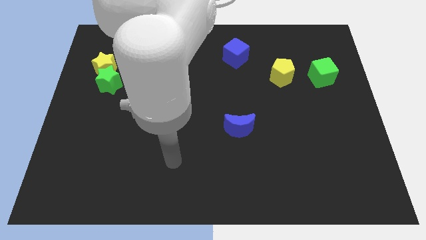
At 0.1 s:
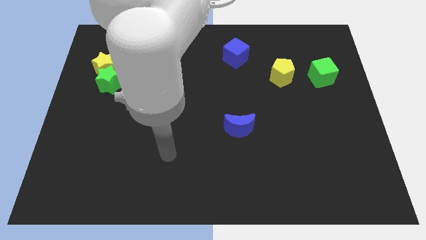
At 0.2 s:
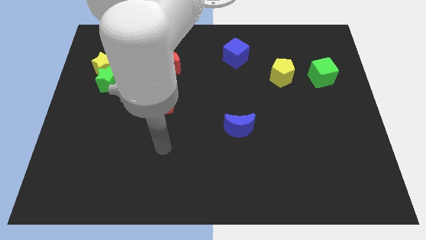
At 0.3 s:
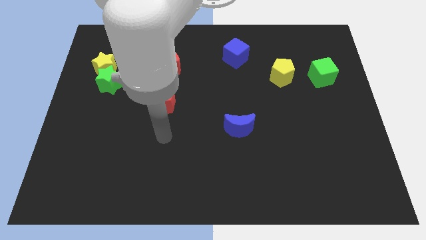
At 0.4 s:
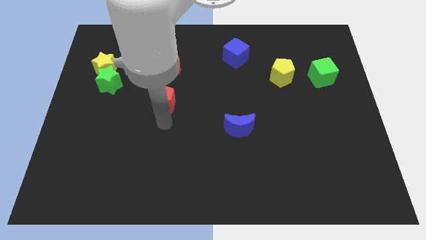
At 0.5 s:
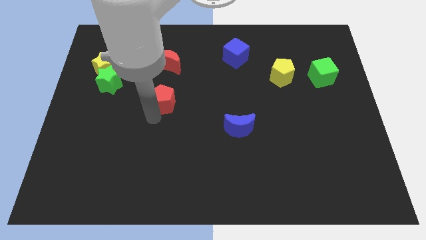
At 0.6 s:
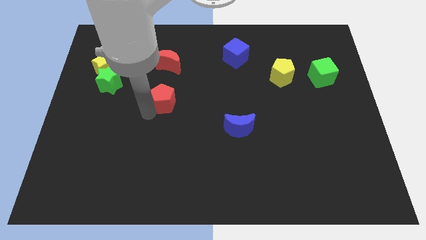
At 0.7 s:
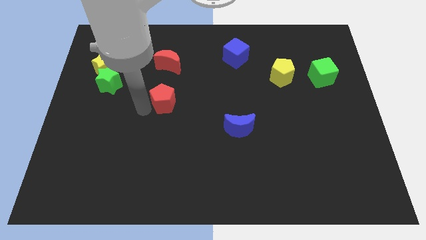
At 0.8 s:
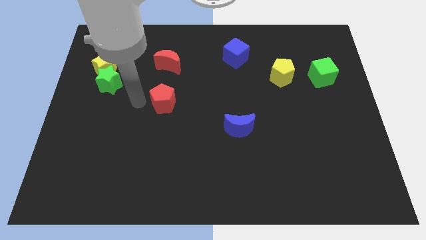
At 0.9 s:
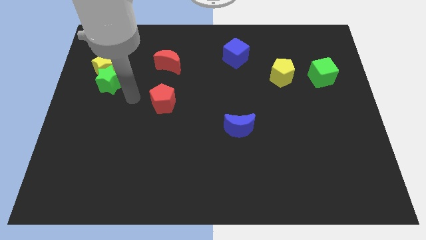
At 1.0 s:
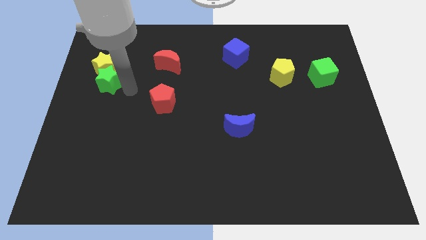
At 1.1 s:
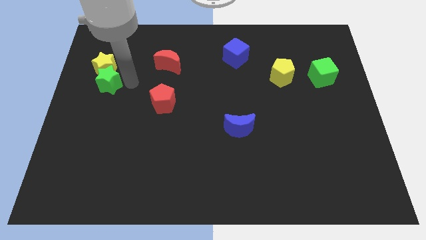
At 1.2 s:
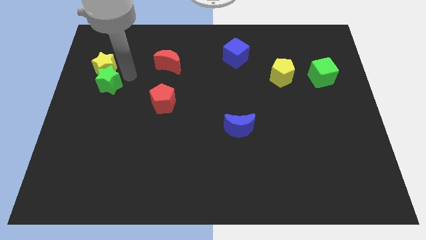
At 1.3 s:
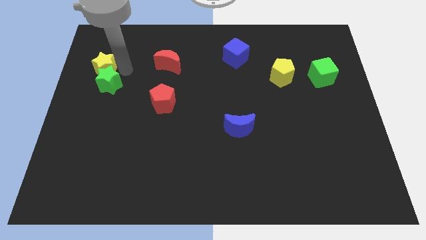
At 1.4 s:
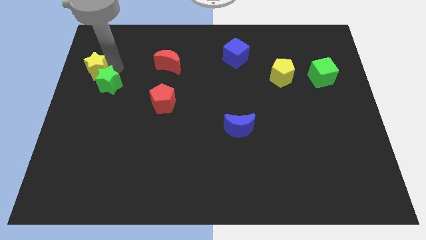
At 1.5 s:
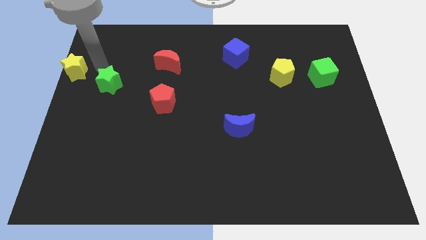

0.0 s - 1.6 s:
move the green star away from the yellow star

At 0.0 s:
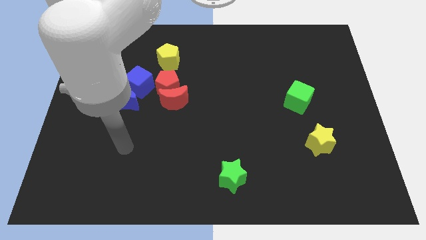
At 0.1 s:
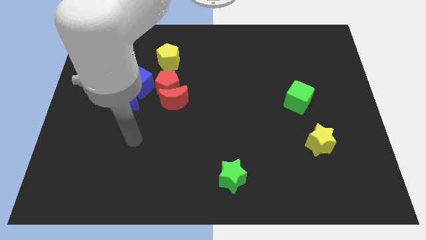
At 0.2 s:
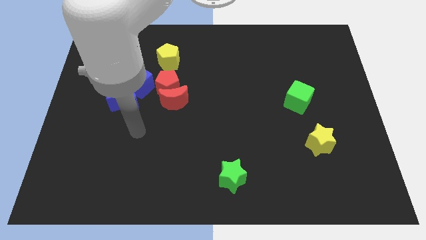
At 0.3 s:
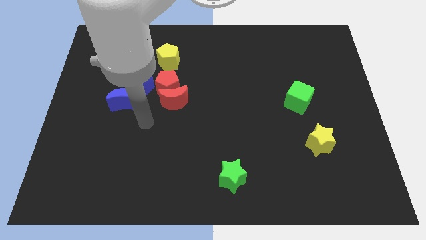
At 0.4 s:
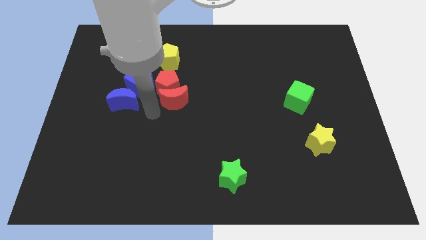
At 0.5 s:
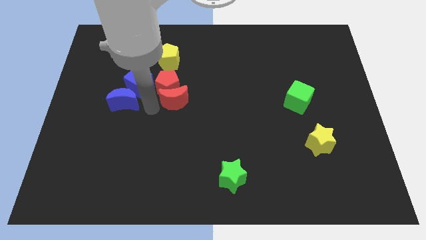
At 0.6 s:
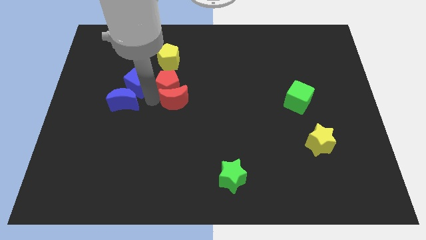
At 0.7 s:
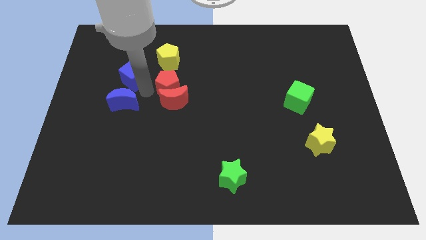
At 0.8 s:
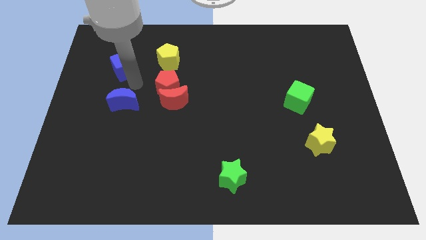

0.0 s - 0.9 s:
pull the blue moon apart from the blue cube

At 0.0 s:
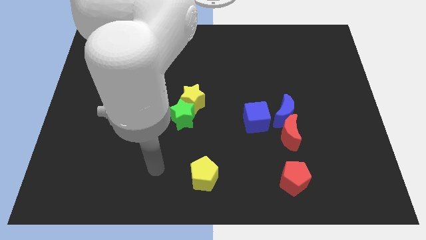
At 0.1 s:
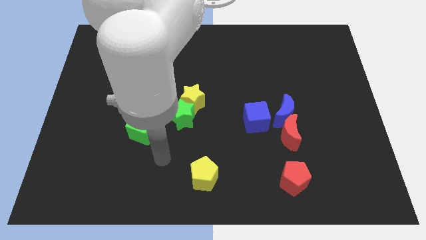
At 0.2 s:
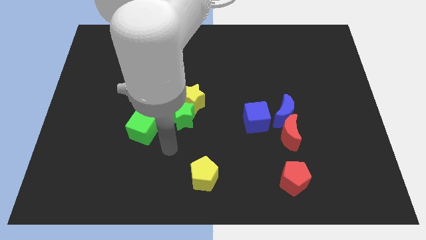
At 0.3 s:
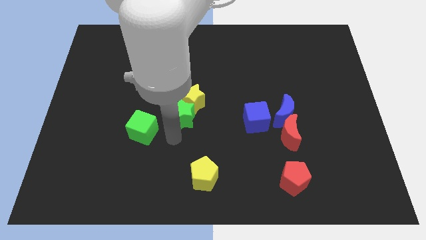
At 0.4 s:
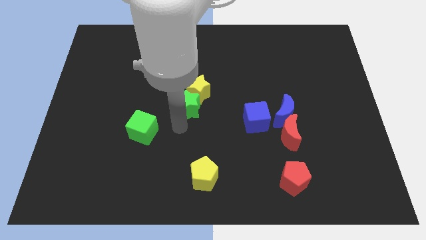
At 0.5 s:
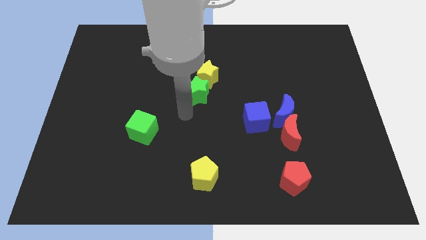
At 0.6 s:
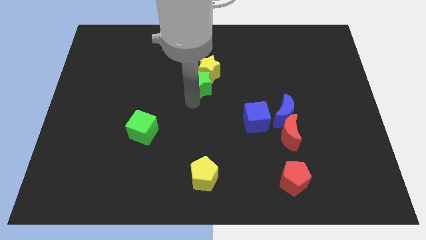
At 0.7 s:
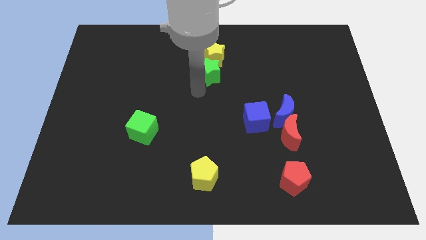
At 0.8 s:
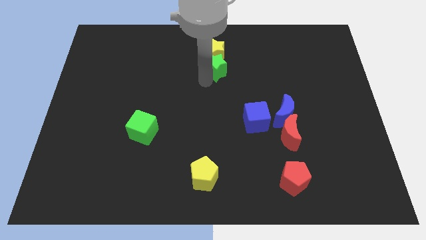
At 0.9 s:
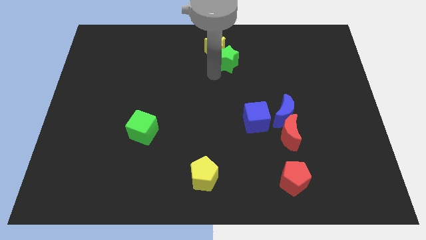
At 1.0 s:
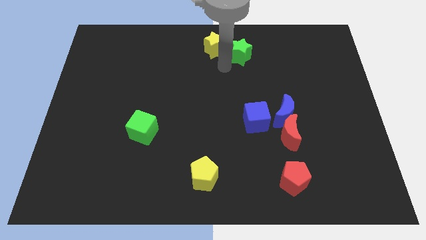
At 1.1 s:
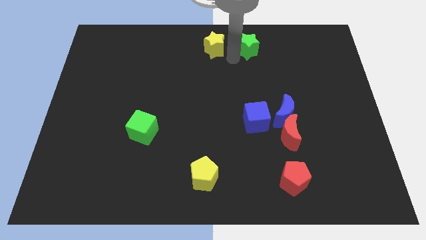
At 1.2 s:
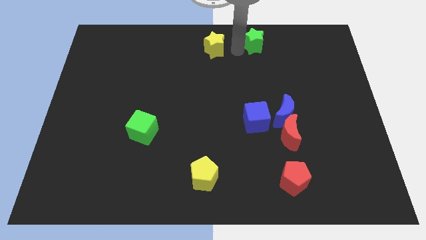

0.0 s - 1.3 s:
move the yellow star away from the green star

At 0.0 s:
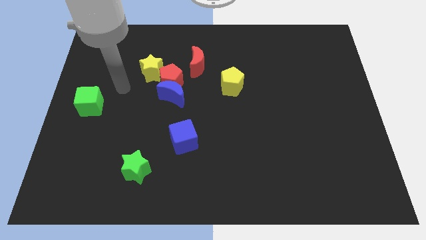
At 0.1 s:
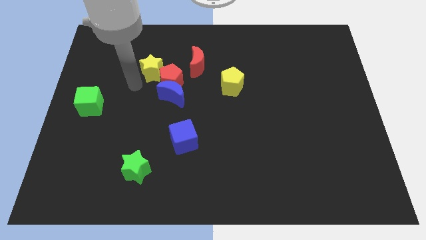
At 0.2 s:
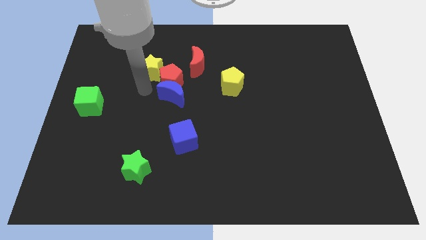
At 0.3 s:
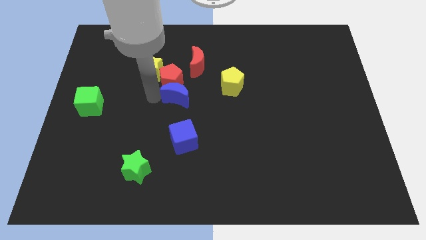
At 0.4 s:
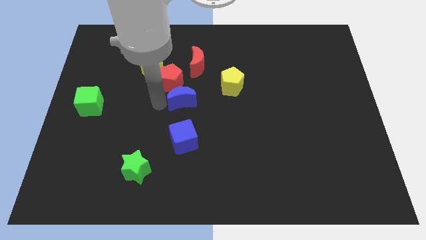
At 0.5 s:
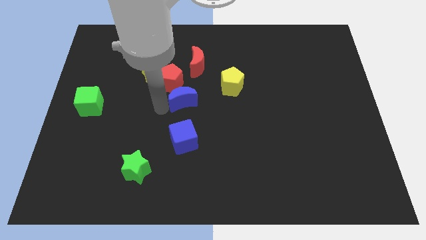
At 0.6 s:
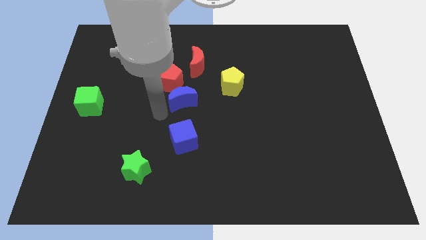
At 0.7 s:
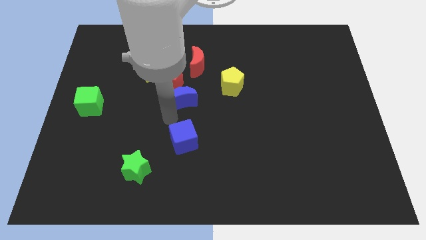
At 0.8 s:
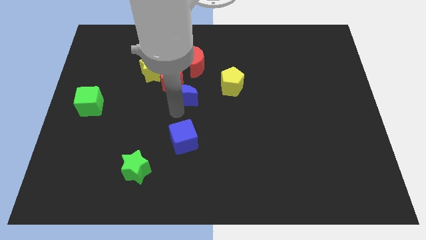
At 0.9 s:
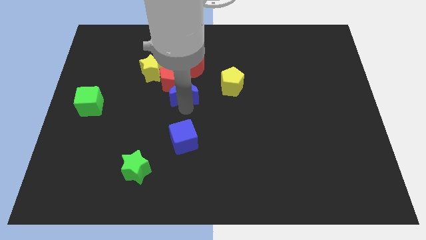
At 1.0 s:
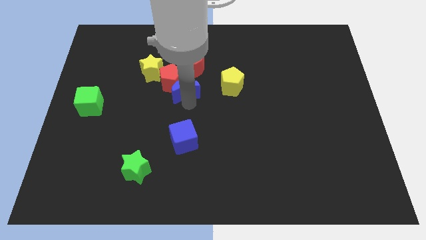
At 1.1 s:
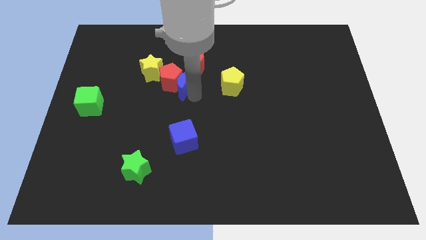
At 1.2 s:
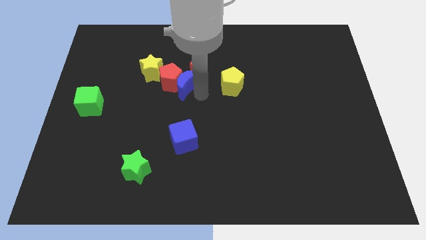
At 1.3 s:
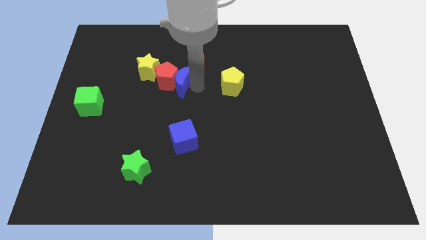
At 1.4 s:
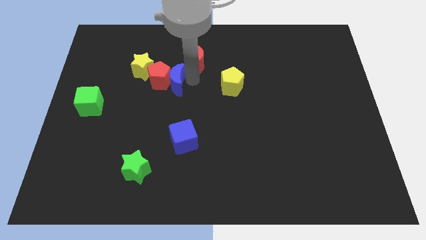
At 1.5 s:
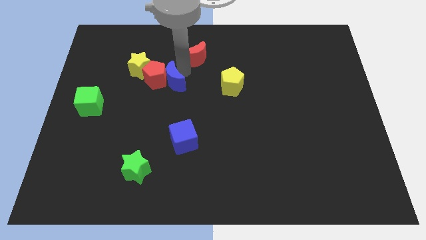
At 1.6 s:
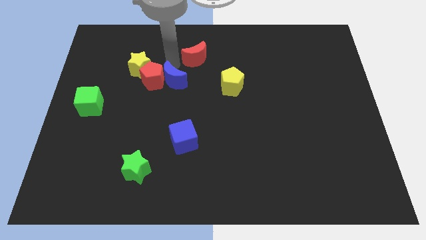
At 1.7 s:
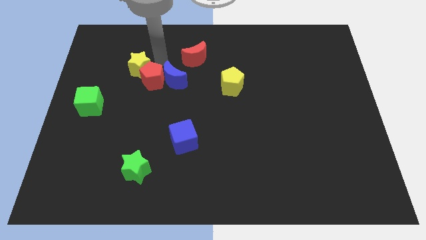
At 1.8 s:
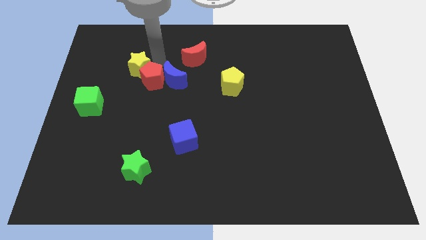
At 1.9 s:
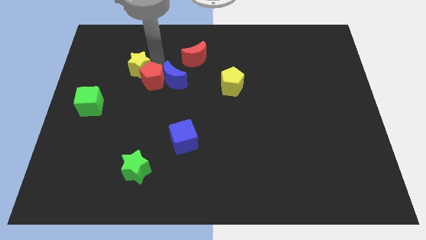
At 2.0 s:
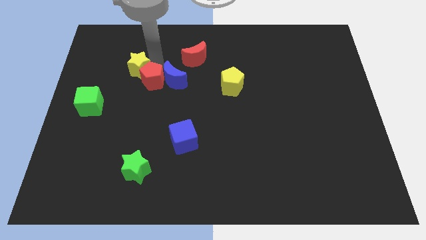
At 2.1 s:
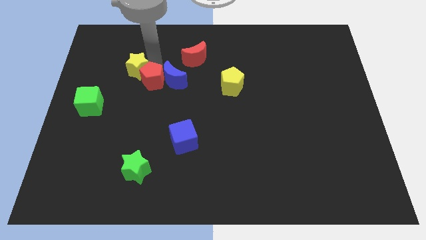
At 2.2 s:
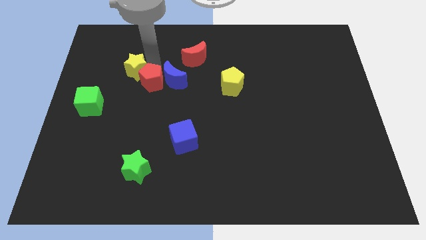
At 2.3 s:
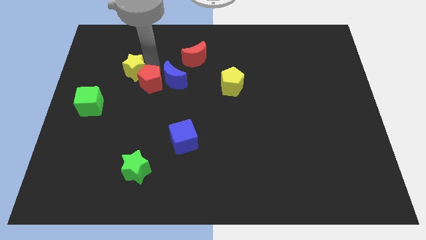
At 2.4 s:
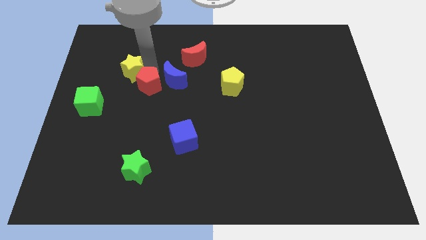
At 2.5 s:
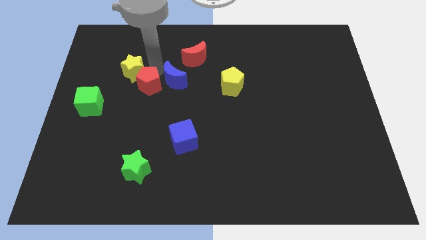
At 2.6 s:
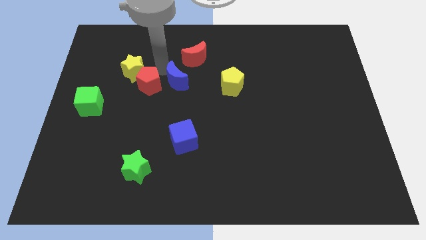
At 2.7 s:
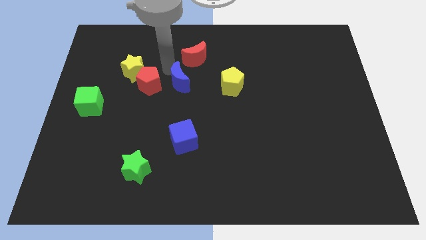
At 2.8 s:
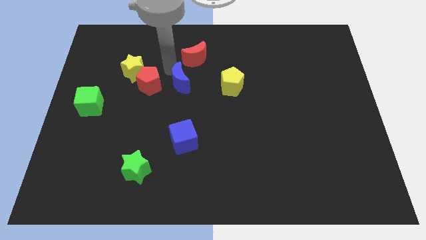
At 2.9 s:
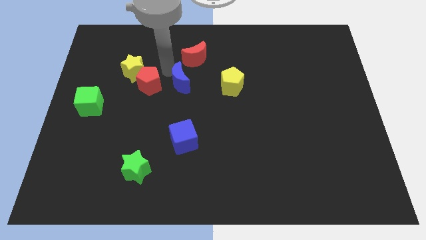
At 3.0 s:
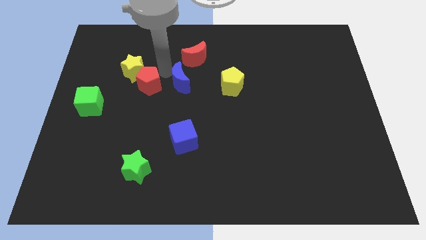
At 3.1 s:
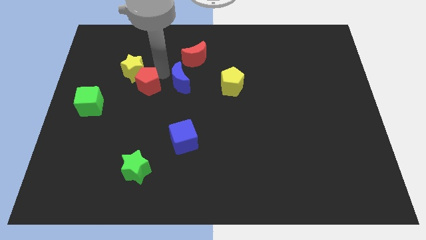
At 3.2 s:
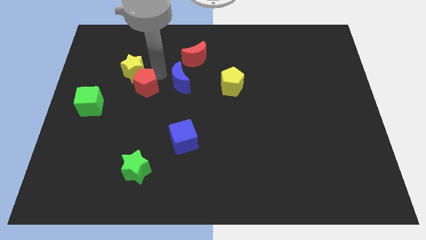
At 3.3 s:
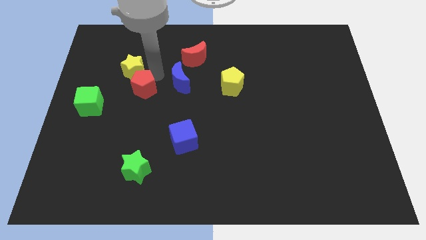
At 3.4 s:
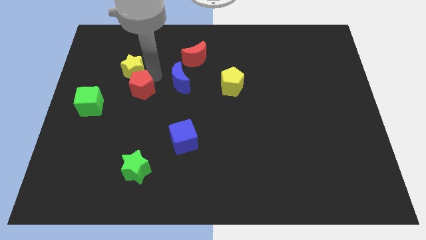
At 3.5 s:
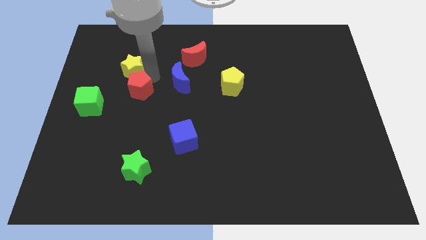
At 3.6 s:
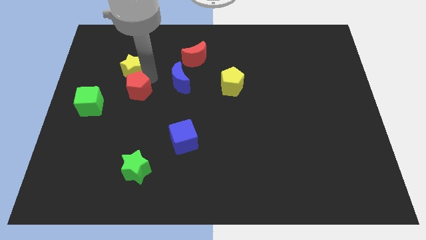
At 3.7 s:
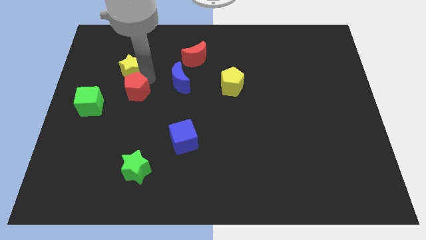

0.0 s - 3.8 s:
separate the red pentagon from the group

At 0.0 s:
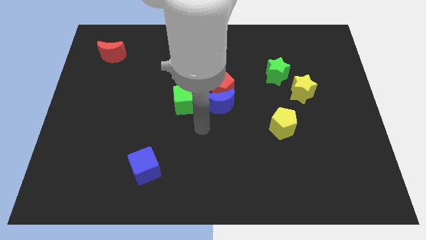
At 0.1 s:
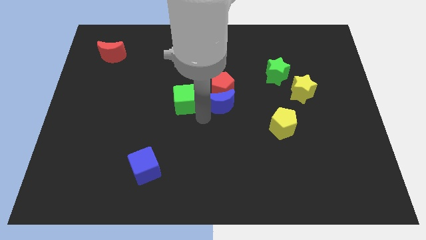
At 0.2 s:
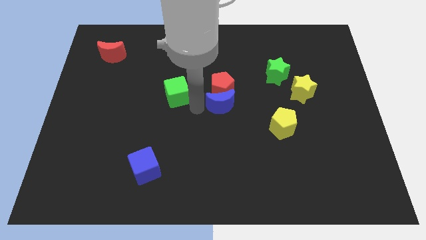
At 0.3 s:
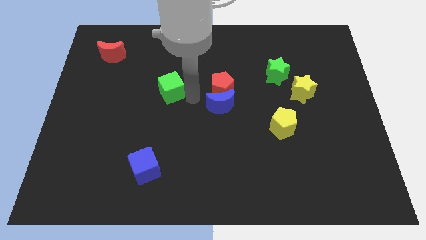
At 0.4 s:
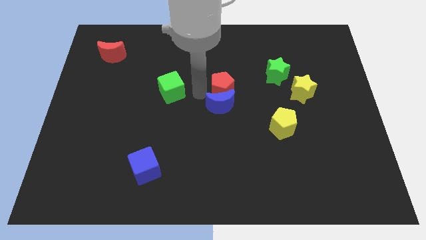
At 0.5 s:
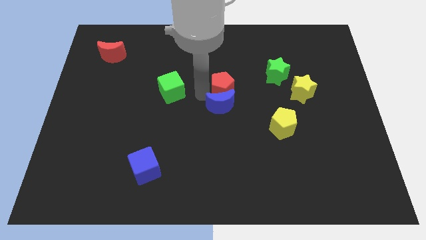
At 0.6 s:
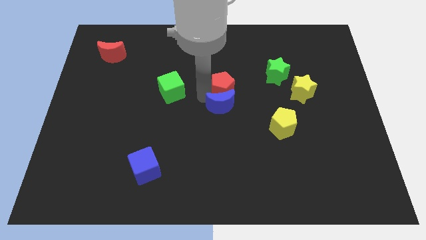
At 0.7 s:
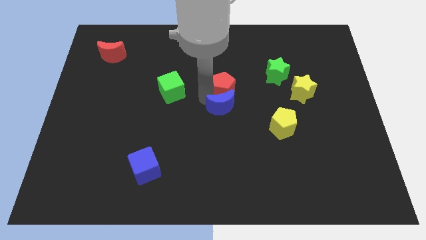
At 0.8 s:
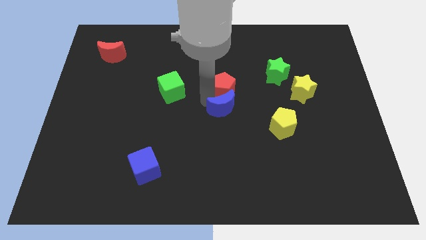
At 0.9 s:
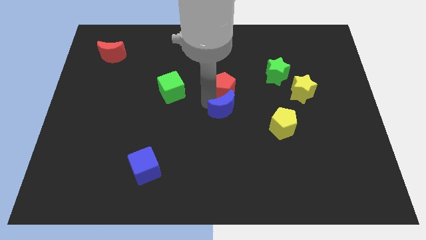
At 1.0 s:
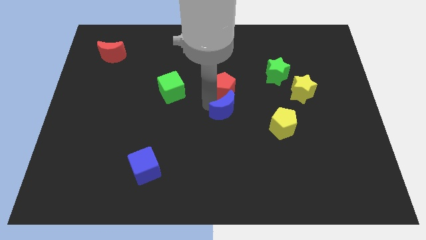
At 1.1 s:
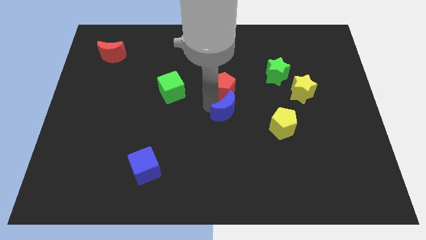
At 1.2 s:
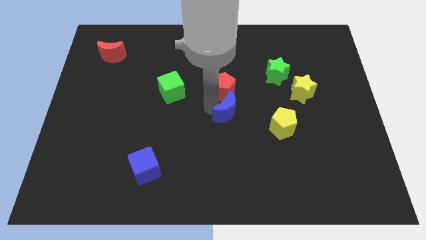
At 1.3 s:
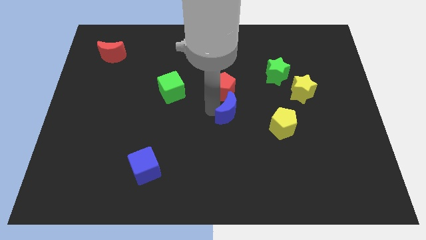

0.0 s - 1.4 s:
separate the blue moon from the red pentagon and green cube

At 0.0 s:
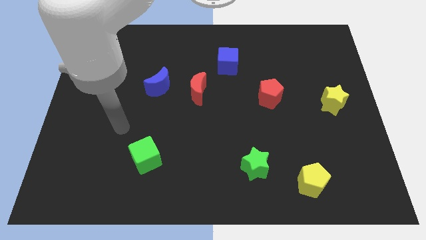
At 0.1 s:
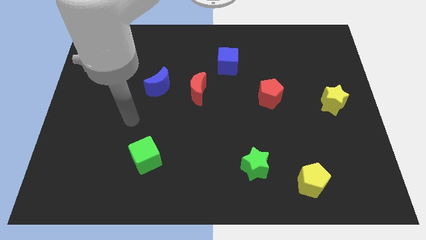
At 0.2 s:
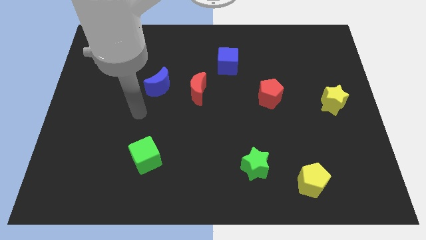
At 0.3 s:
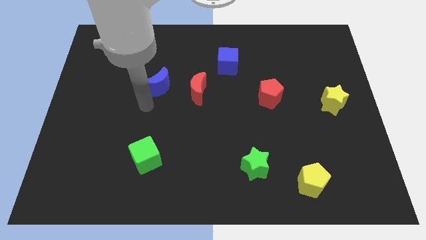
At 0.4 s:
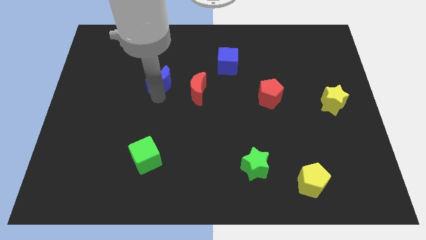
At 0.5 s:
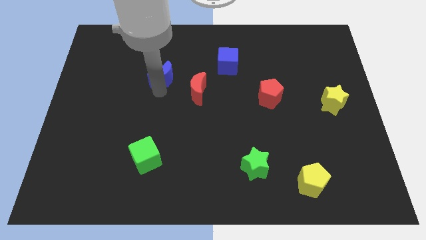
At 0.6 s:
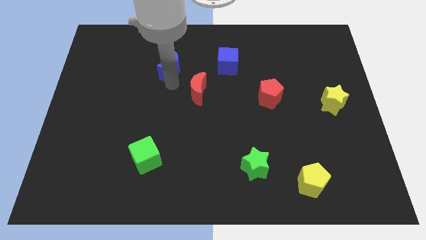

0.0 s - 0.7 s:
move the red moon away from the blue moon
